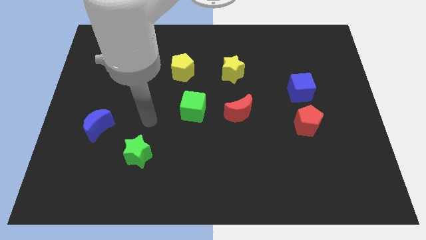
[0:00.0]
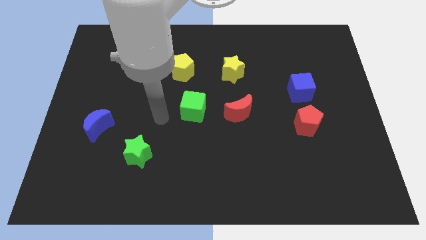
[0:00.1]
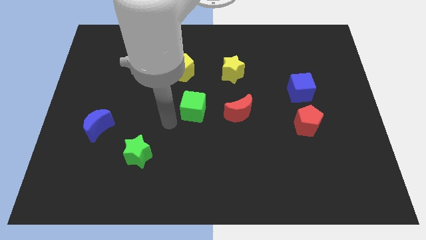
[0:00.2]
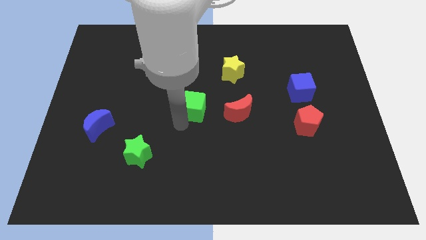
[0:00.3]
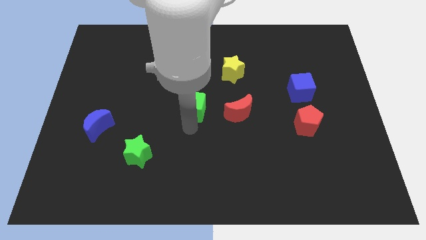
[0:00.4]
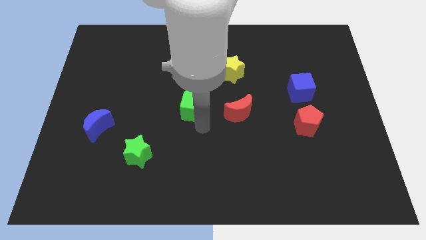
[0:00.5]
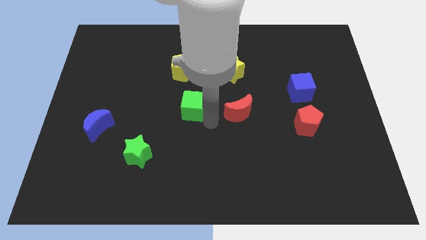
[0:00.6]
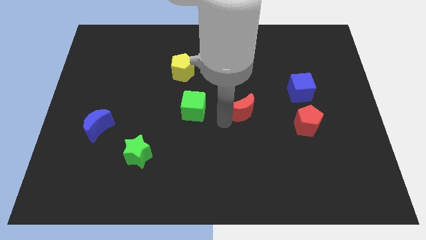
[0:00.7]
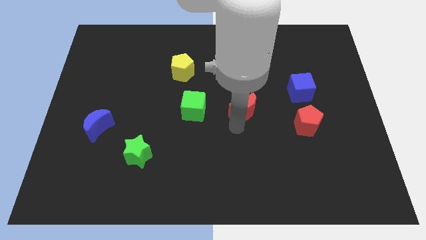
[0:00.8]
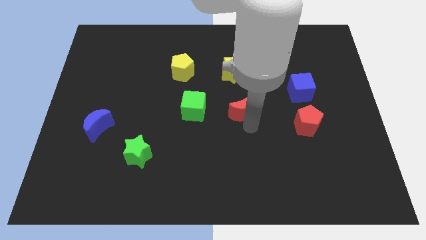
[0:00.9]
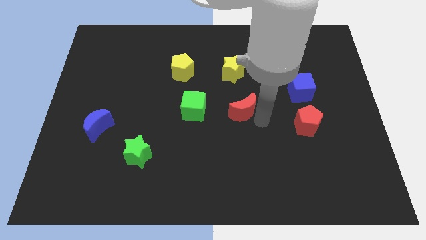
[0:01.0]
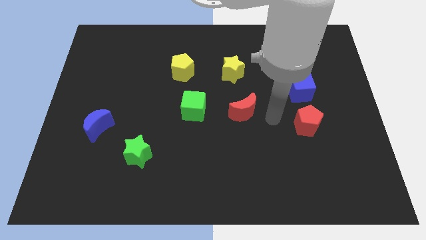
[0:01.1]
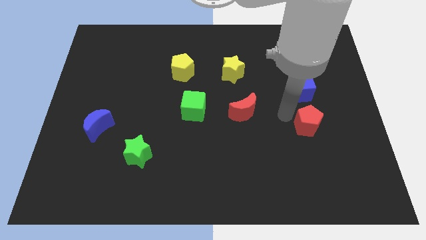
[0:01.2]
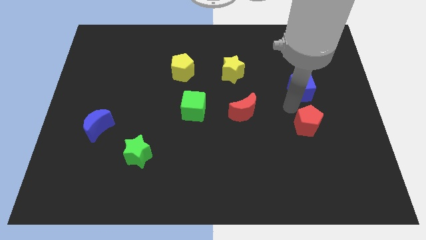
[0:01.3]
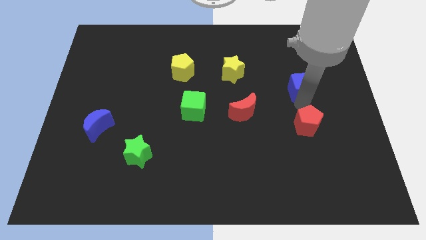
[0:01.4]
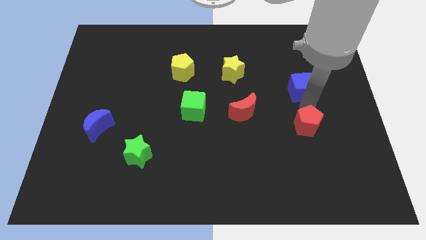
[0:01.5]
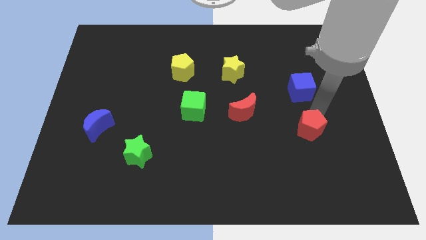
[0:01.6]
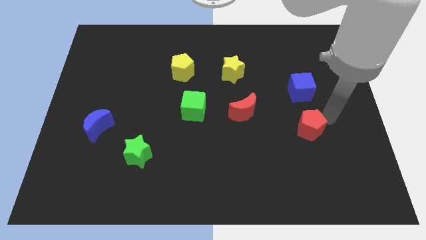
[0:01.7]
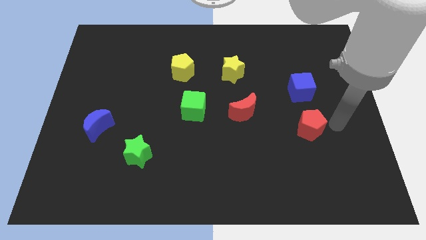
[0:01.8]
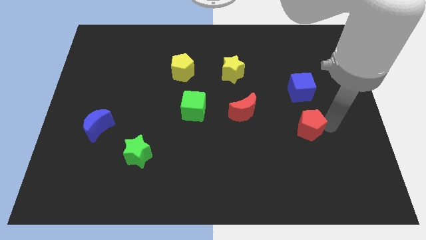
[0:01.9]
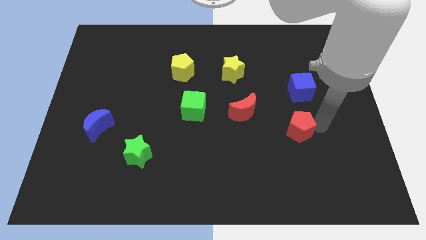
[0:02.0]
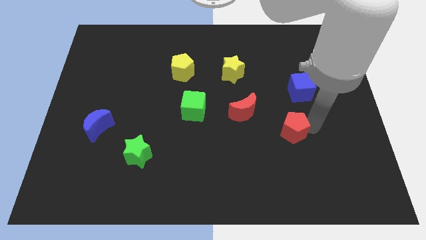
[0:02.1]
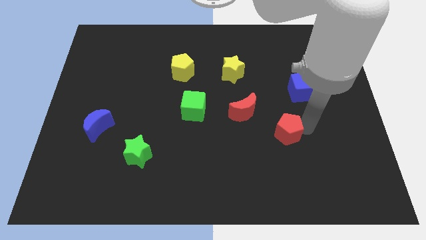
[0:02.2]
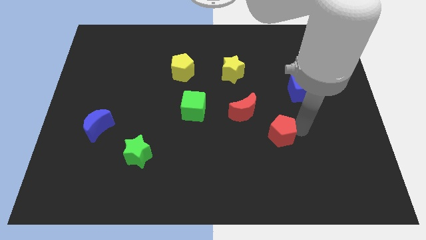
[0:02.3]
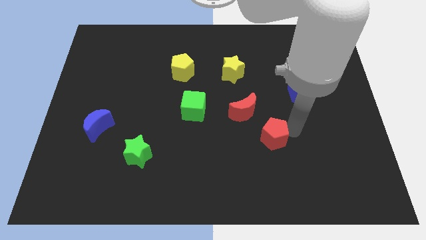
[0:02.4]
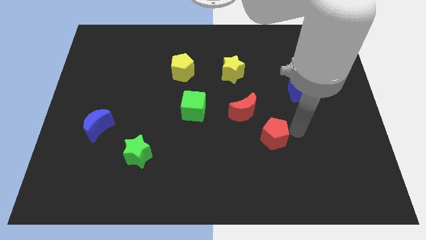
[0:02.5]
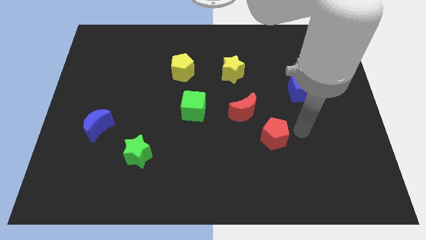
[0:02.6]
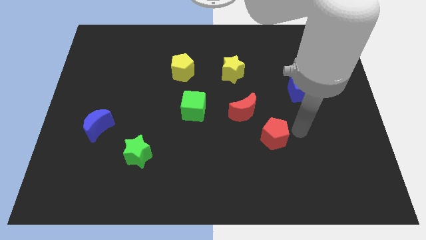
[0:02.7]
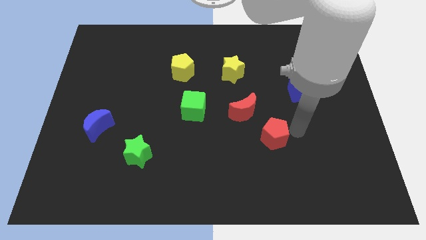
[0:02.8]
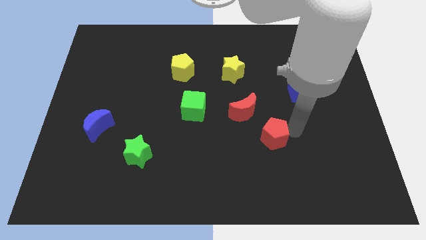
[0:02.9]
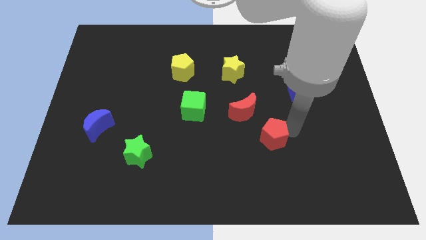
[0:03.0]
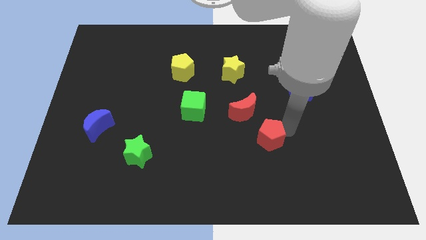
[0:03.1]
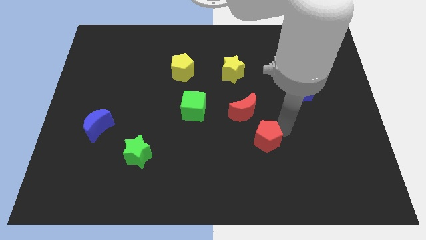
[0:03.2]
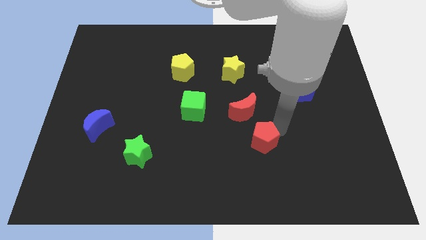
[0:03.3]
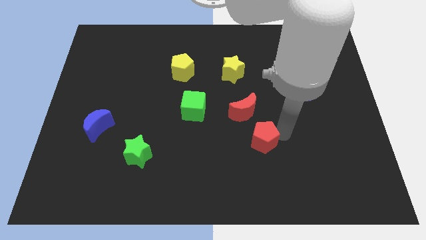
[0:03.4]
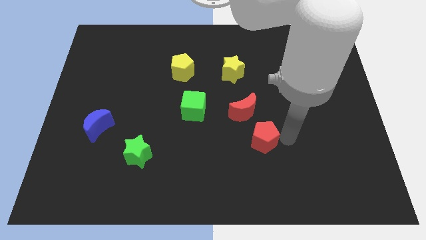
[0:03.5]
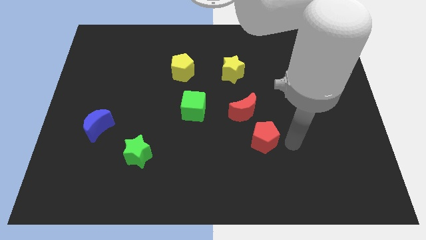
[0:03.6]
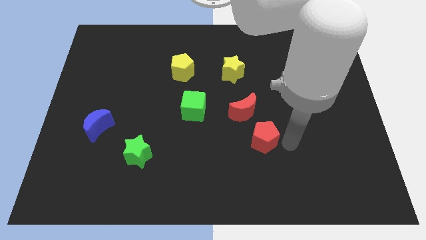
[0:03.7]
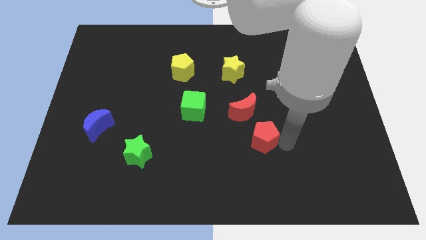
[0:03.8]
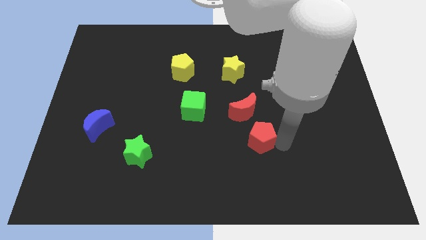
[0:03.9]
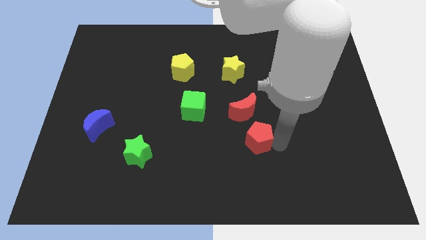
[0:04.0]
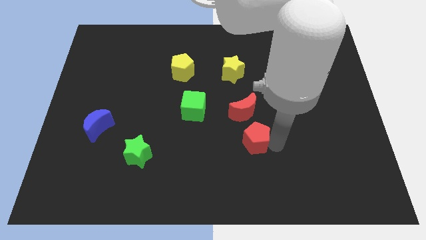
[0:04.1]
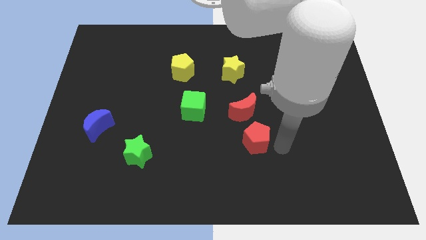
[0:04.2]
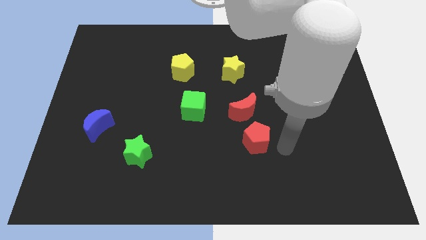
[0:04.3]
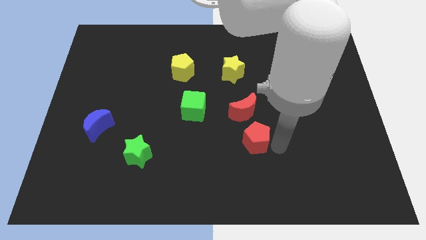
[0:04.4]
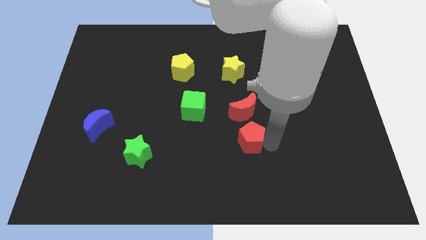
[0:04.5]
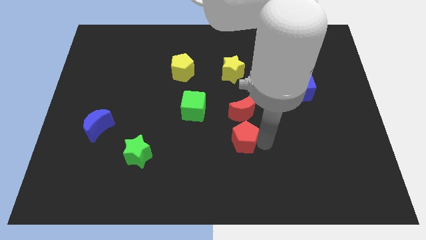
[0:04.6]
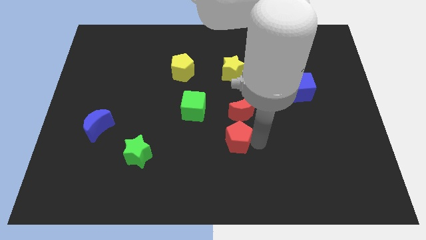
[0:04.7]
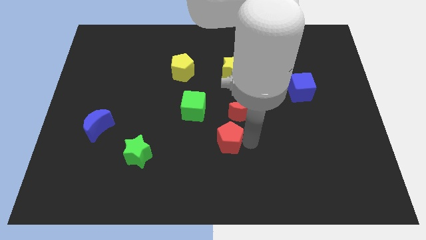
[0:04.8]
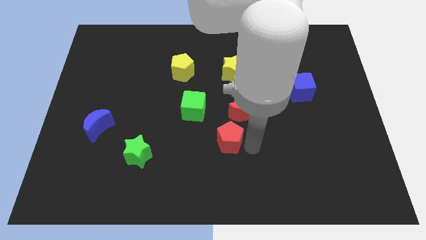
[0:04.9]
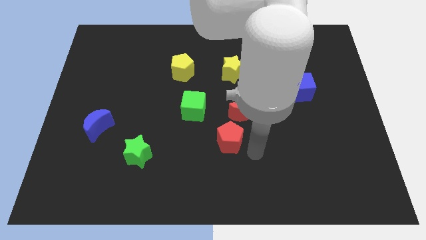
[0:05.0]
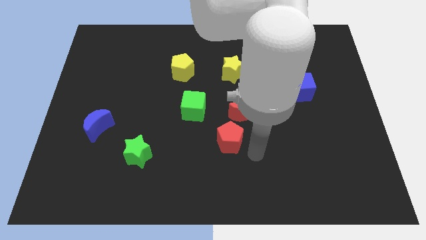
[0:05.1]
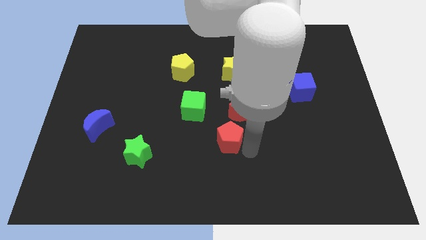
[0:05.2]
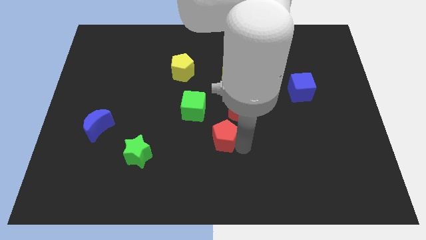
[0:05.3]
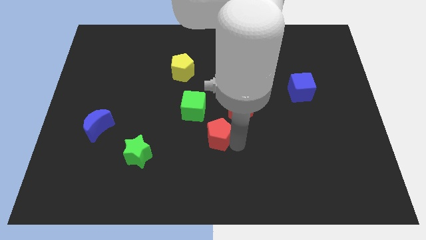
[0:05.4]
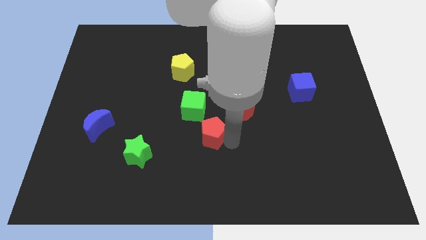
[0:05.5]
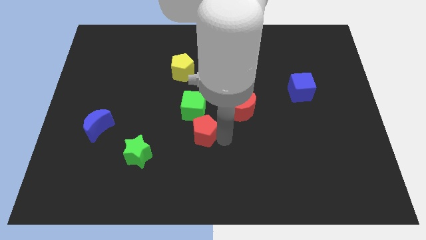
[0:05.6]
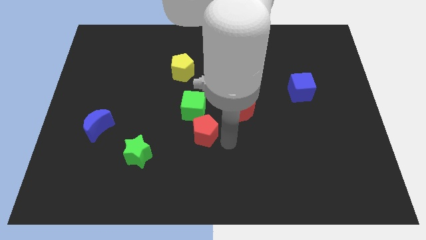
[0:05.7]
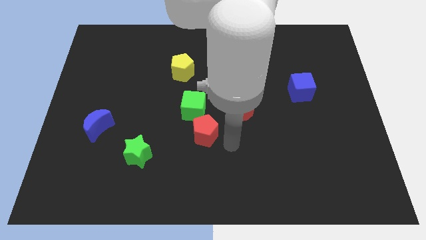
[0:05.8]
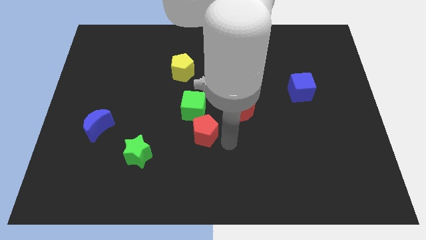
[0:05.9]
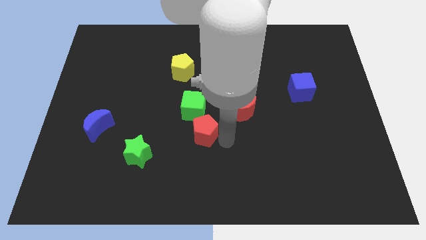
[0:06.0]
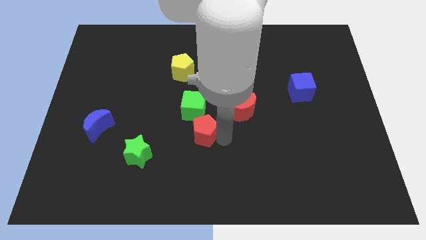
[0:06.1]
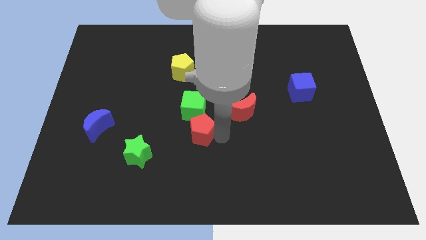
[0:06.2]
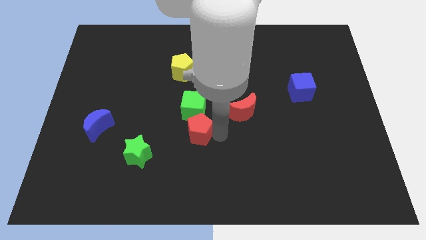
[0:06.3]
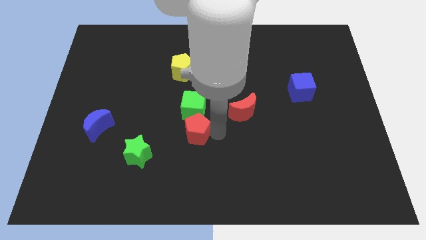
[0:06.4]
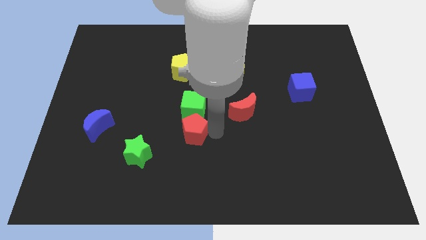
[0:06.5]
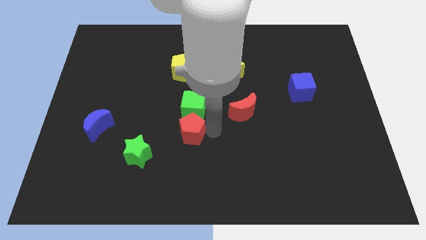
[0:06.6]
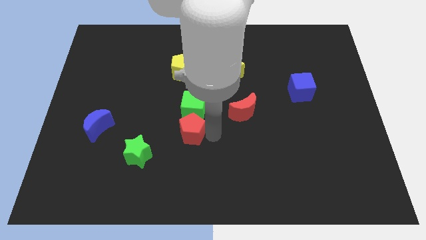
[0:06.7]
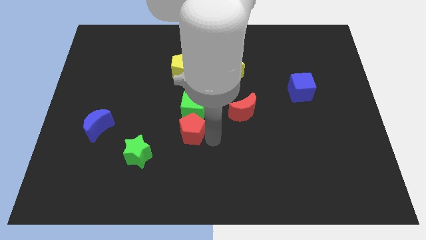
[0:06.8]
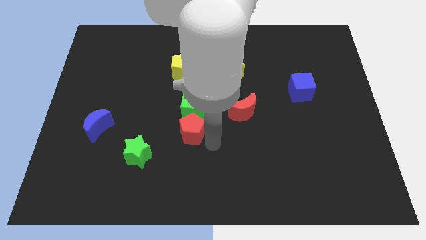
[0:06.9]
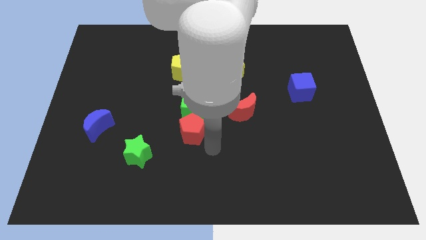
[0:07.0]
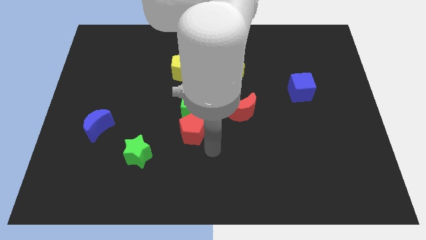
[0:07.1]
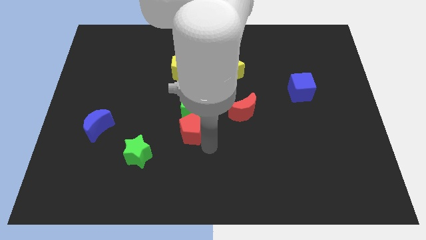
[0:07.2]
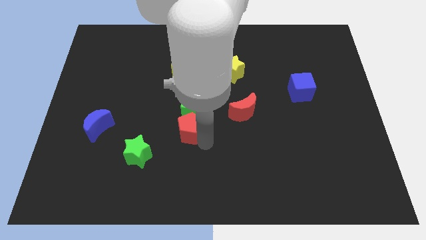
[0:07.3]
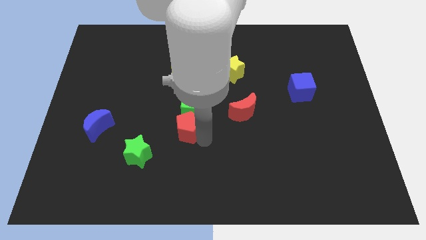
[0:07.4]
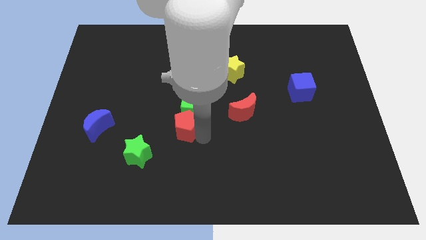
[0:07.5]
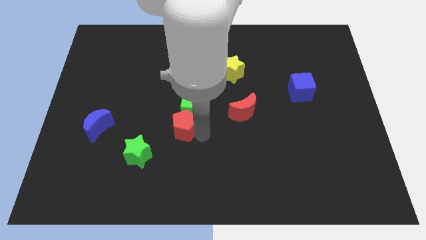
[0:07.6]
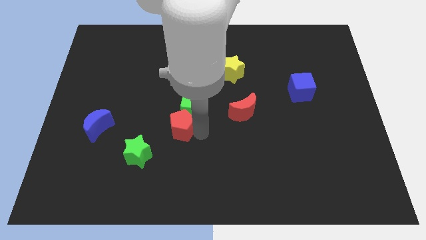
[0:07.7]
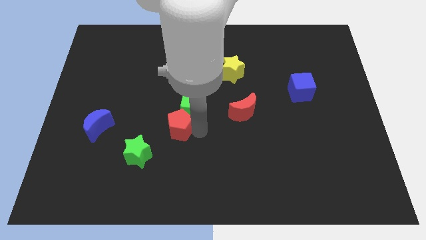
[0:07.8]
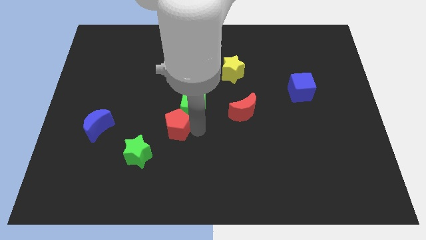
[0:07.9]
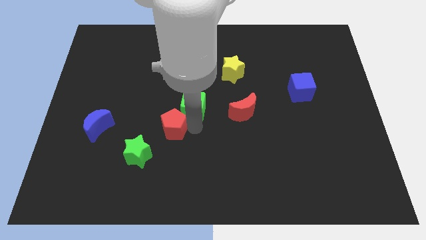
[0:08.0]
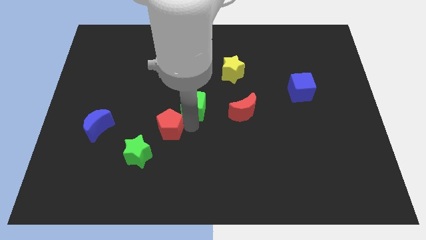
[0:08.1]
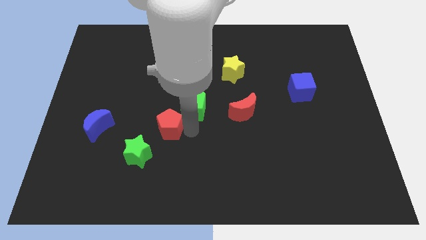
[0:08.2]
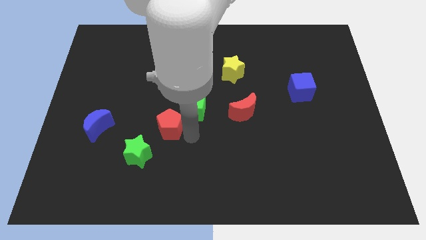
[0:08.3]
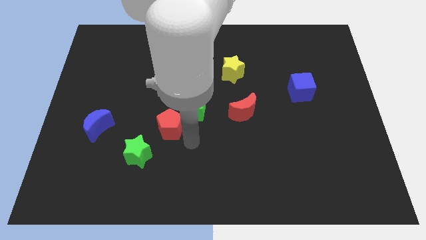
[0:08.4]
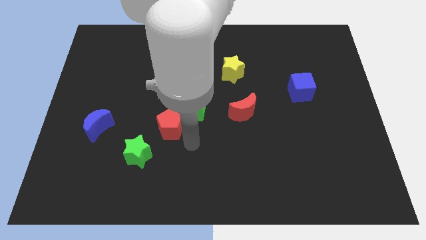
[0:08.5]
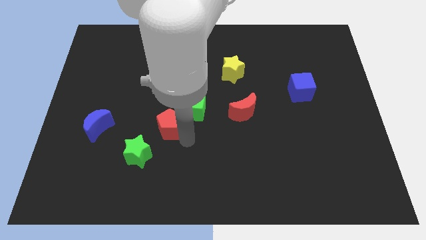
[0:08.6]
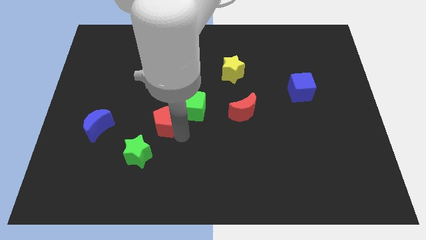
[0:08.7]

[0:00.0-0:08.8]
slide the red pentagon just left of the green cube
